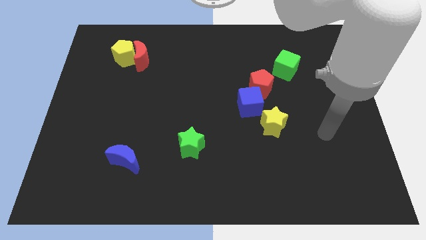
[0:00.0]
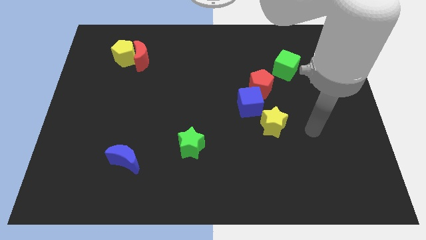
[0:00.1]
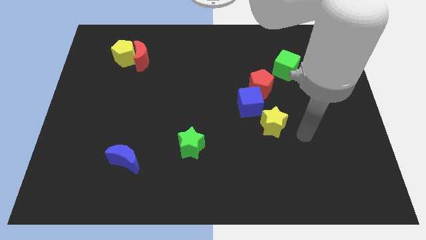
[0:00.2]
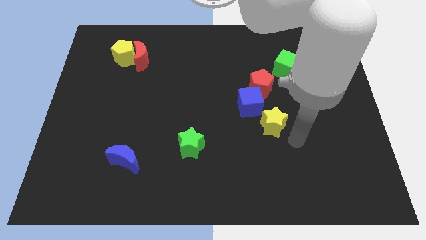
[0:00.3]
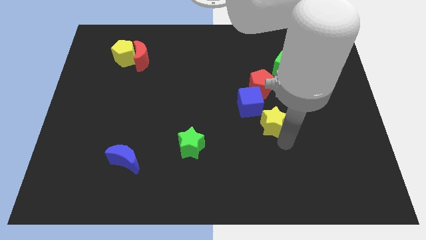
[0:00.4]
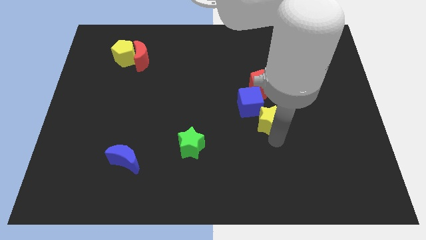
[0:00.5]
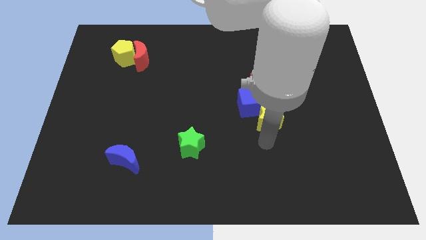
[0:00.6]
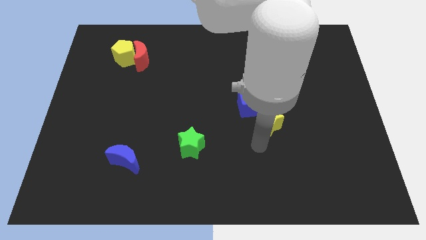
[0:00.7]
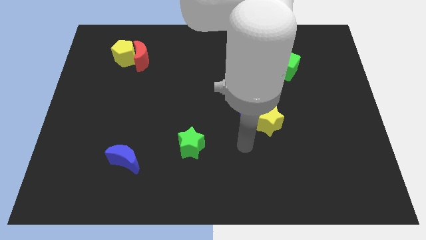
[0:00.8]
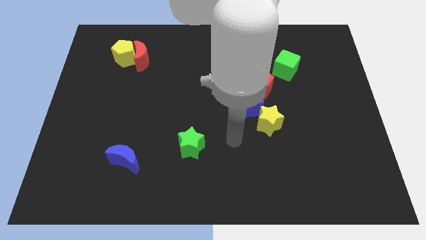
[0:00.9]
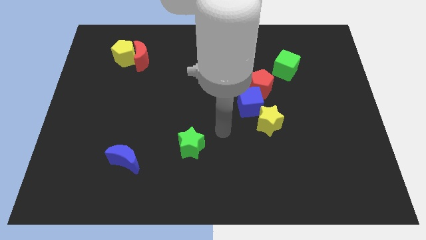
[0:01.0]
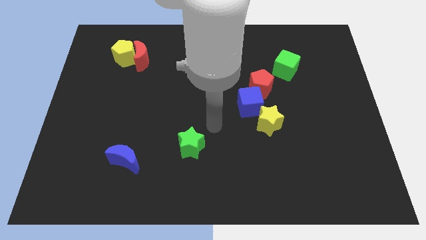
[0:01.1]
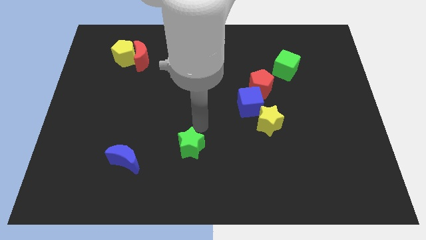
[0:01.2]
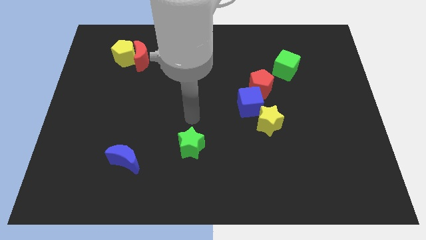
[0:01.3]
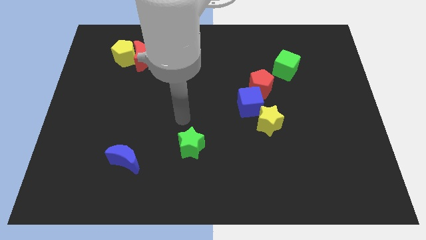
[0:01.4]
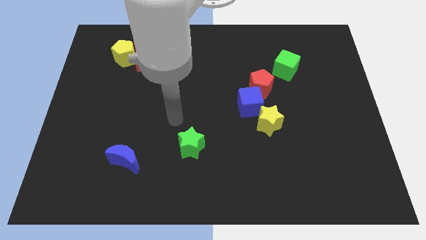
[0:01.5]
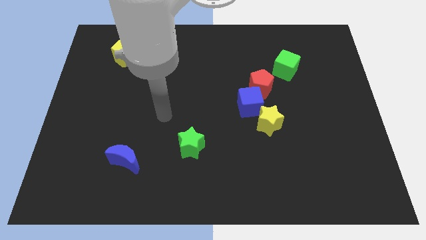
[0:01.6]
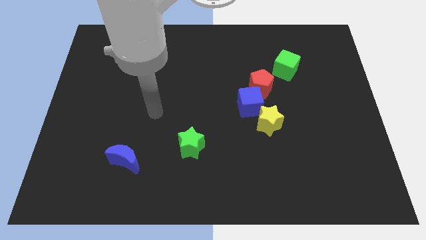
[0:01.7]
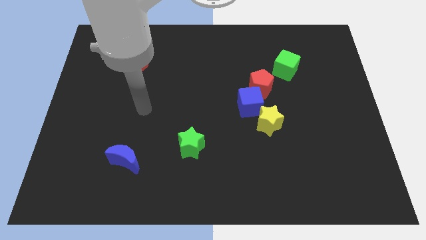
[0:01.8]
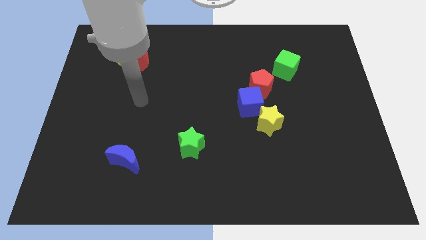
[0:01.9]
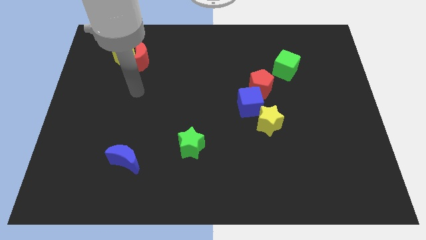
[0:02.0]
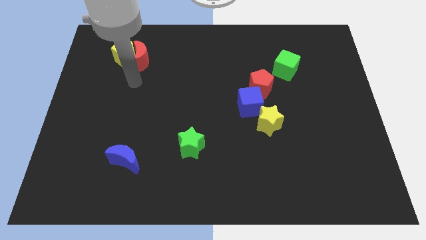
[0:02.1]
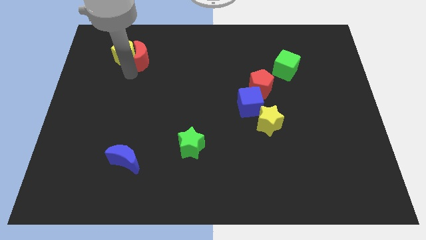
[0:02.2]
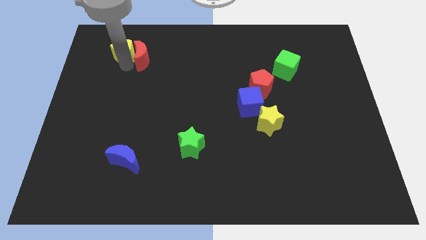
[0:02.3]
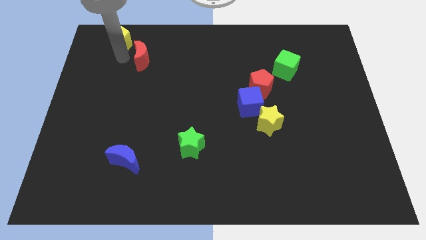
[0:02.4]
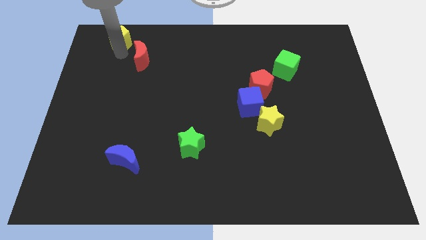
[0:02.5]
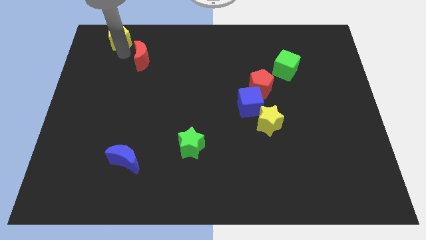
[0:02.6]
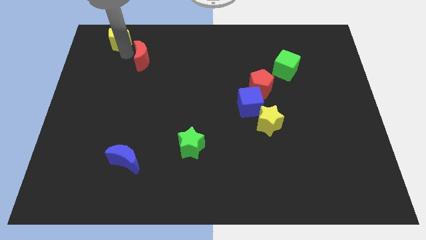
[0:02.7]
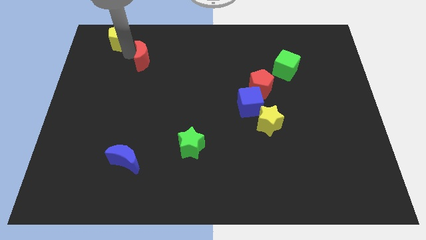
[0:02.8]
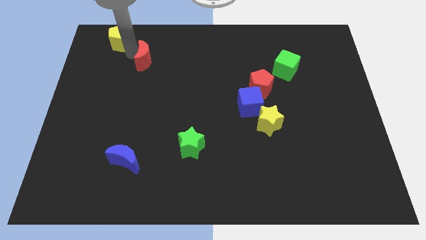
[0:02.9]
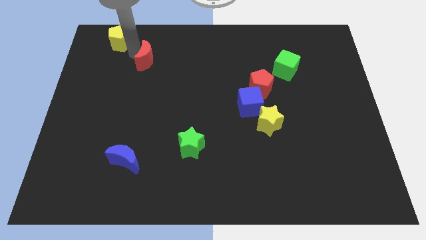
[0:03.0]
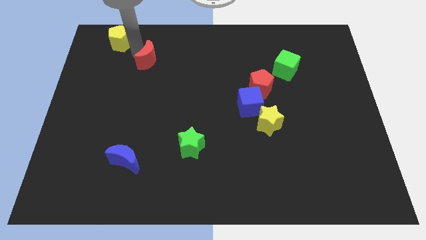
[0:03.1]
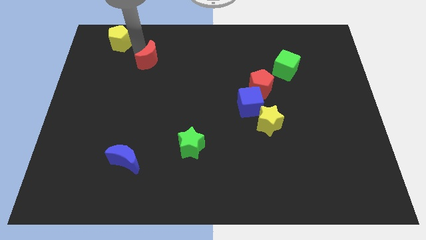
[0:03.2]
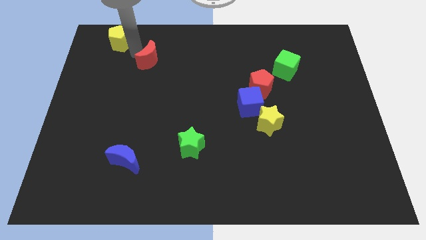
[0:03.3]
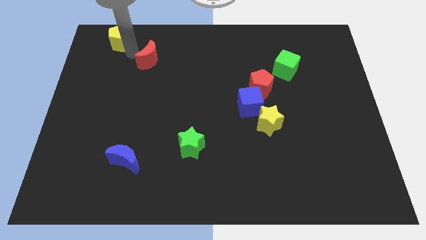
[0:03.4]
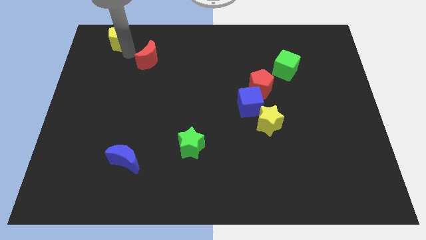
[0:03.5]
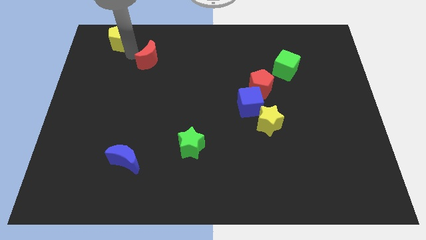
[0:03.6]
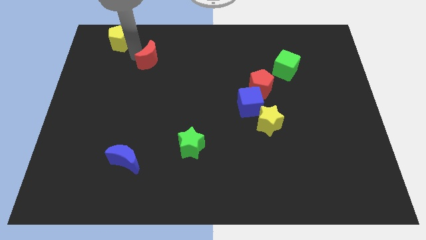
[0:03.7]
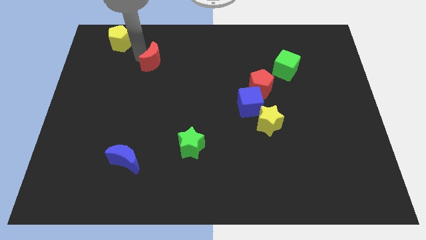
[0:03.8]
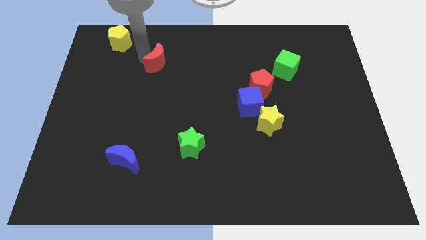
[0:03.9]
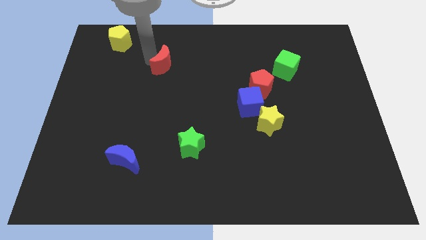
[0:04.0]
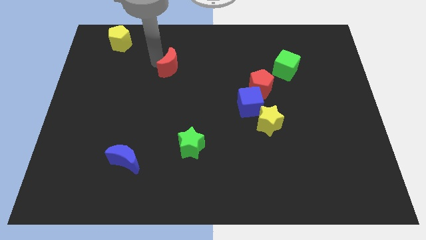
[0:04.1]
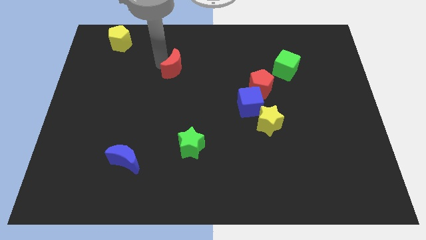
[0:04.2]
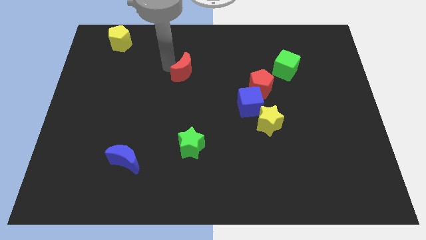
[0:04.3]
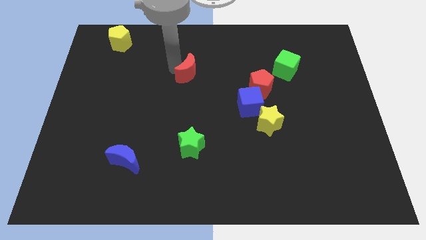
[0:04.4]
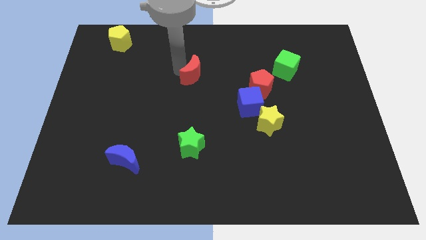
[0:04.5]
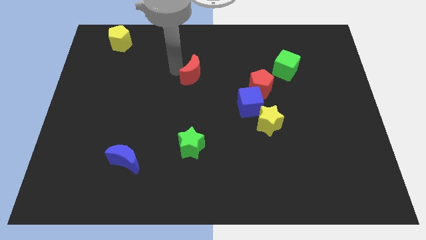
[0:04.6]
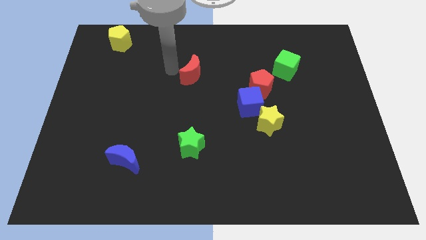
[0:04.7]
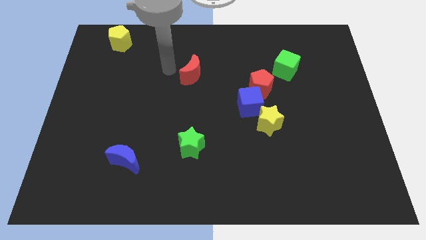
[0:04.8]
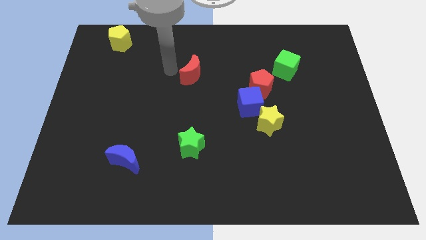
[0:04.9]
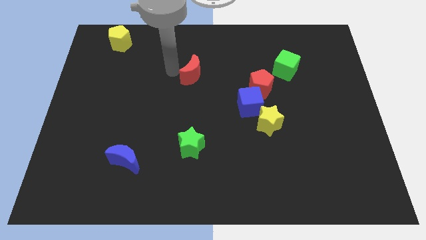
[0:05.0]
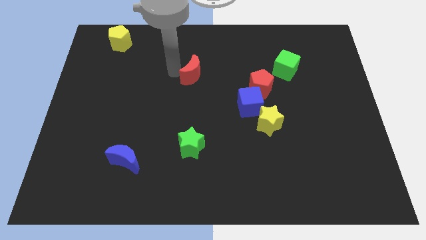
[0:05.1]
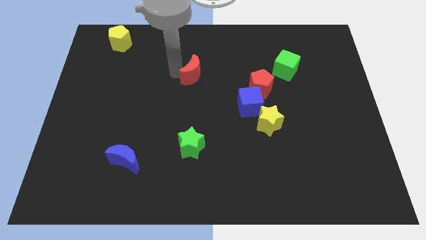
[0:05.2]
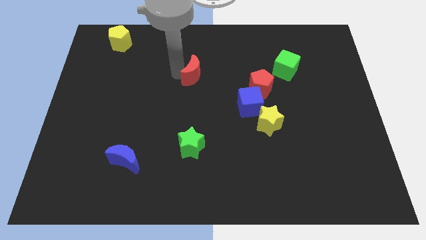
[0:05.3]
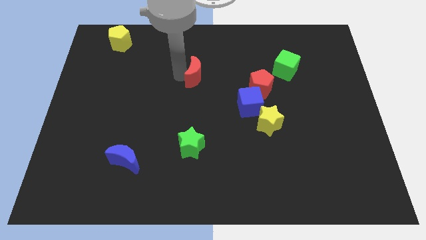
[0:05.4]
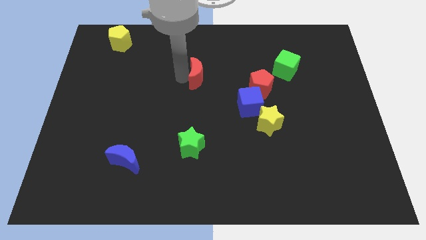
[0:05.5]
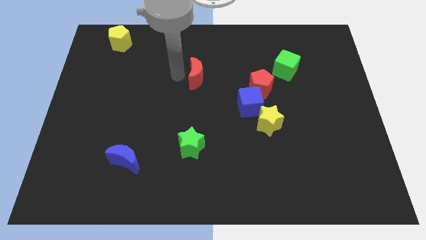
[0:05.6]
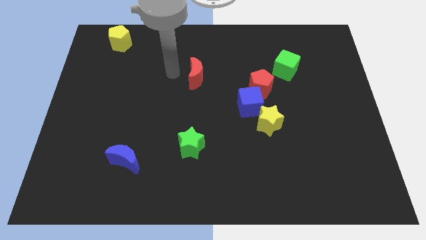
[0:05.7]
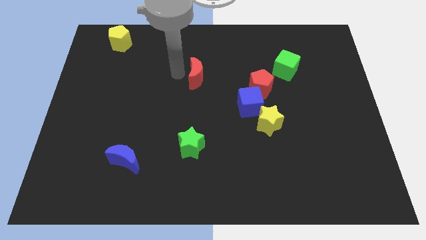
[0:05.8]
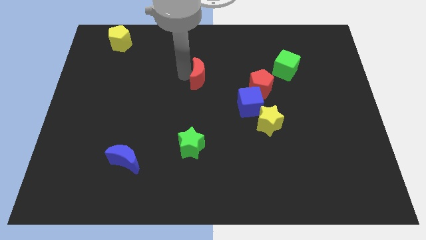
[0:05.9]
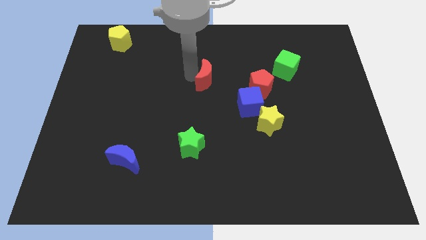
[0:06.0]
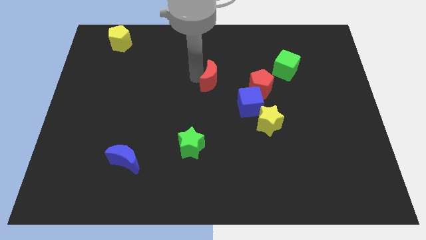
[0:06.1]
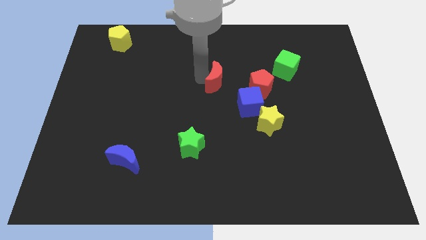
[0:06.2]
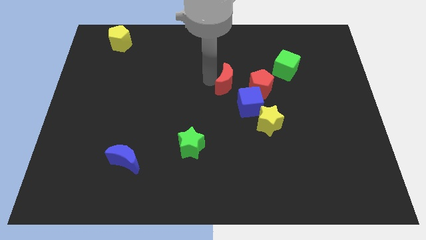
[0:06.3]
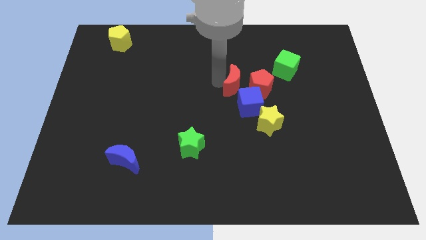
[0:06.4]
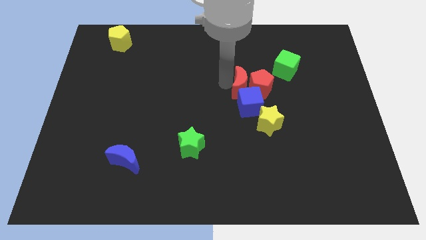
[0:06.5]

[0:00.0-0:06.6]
slide the red moon to the red pentagon
